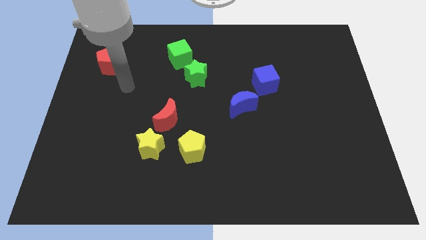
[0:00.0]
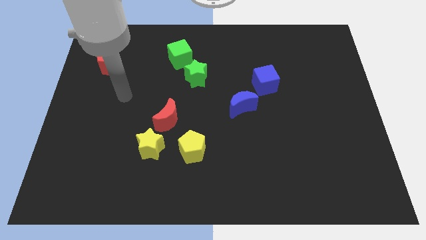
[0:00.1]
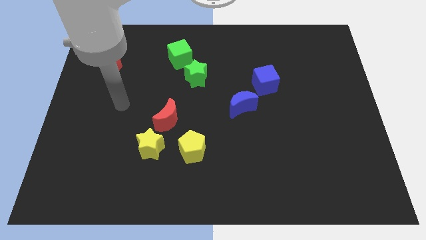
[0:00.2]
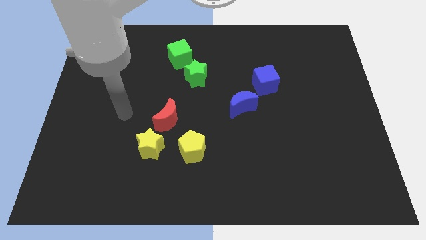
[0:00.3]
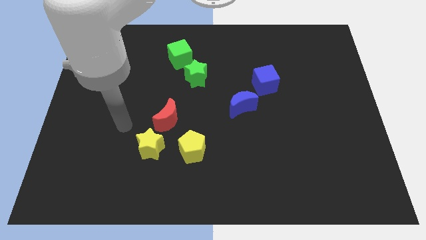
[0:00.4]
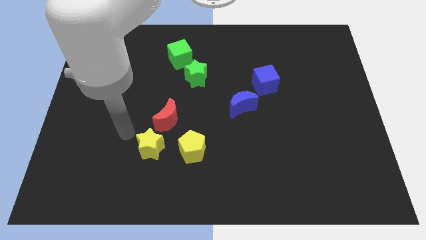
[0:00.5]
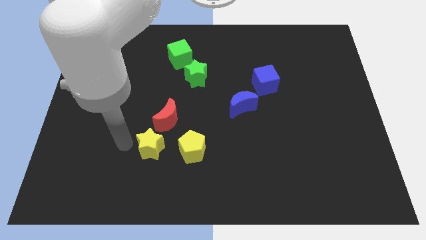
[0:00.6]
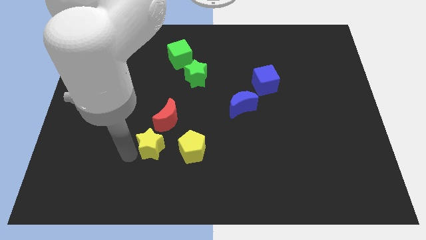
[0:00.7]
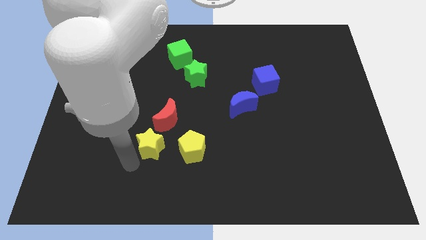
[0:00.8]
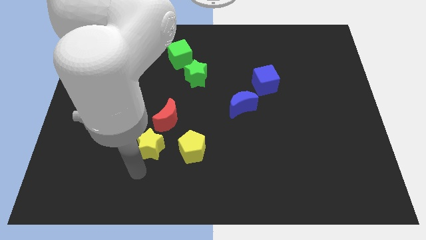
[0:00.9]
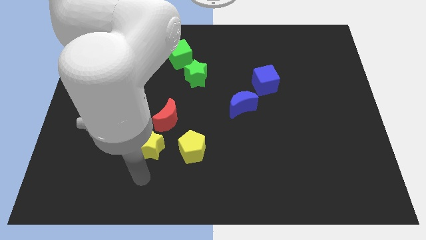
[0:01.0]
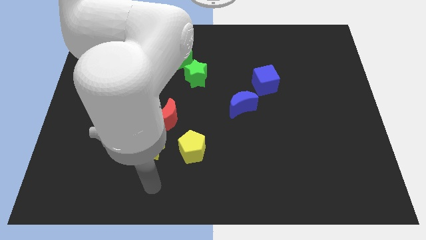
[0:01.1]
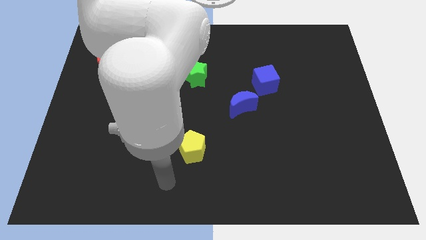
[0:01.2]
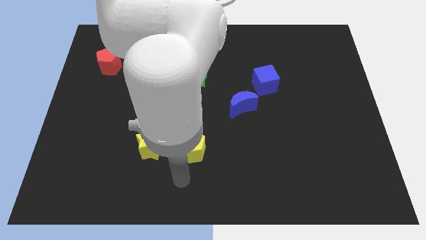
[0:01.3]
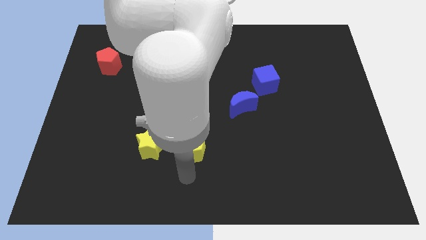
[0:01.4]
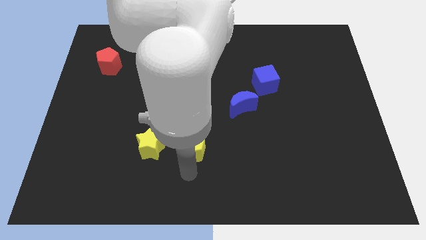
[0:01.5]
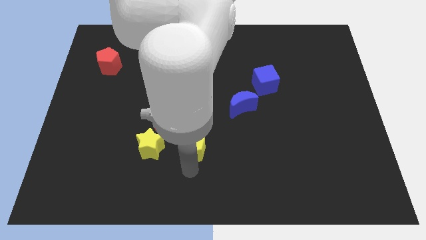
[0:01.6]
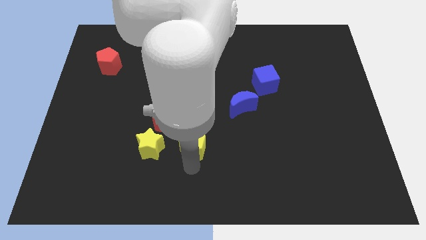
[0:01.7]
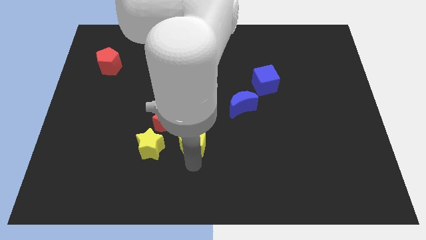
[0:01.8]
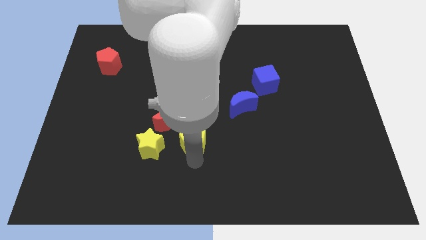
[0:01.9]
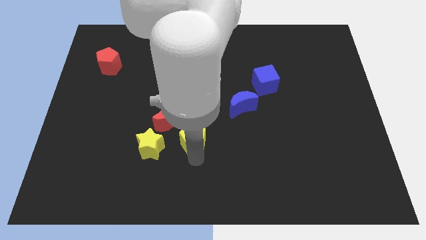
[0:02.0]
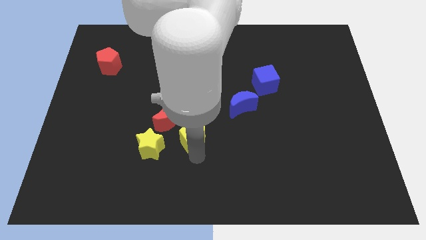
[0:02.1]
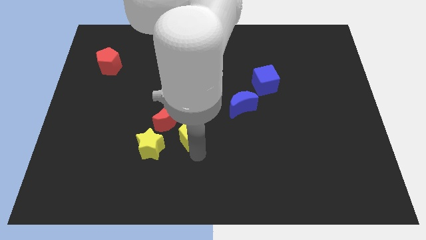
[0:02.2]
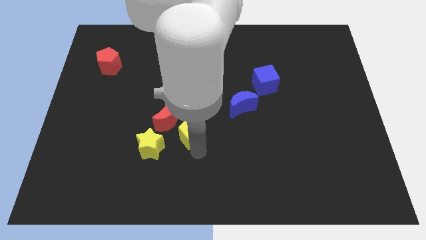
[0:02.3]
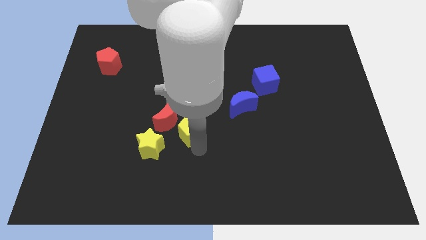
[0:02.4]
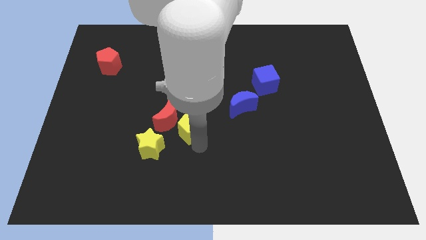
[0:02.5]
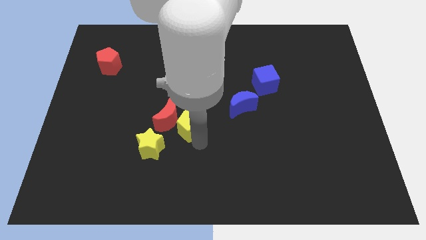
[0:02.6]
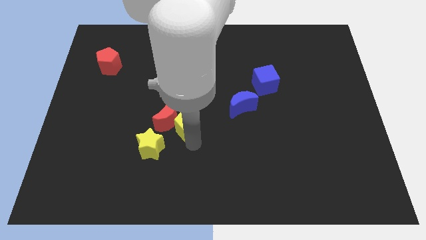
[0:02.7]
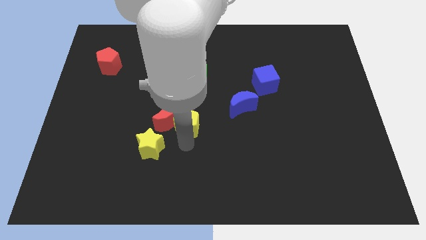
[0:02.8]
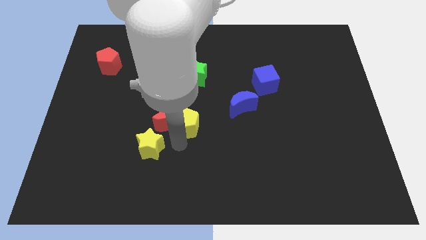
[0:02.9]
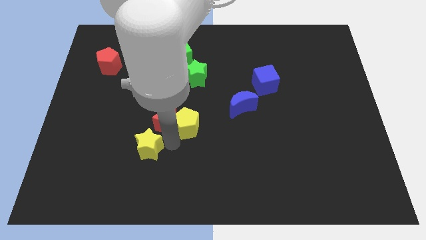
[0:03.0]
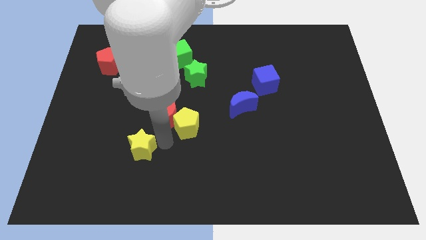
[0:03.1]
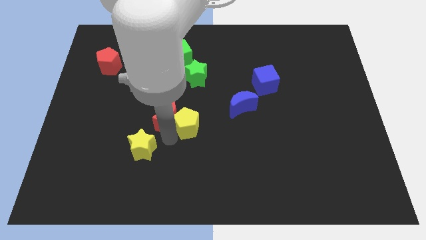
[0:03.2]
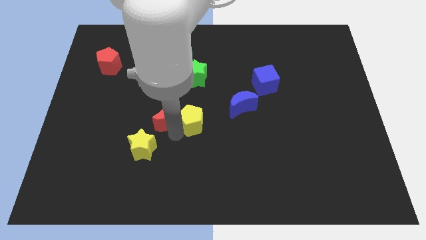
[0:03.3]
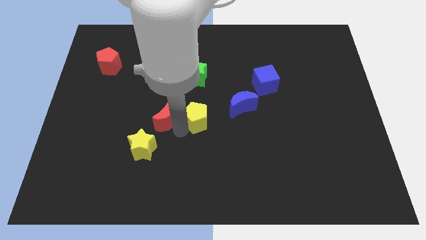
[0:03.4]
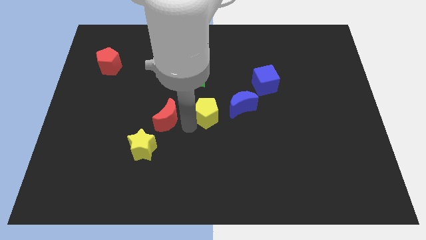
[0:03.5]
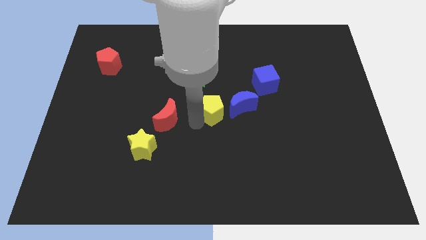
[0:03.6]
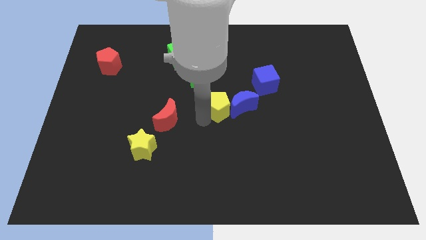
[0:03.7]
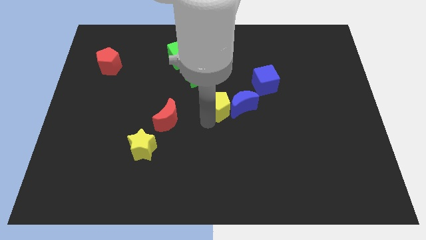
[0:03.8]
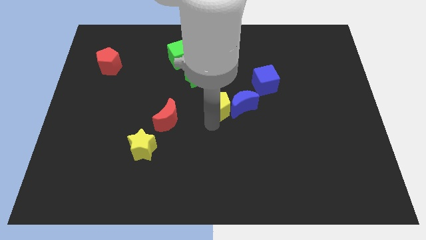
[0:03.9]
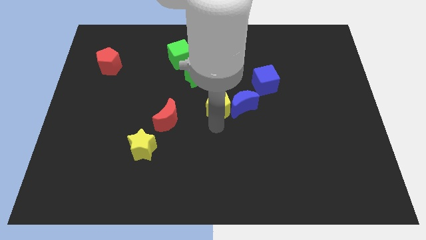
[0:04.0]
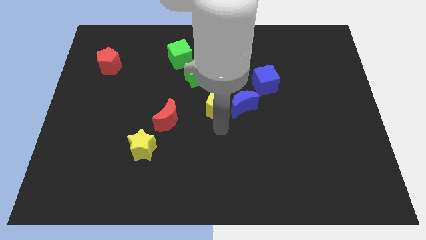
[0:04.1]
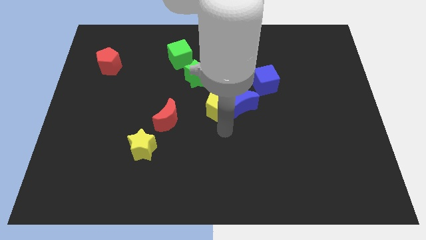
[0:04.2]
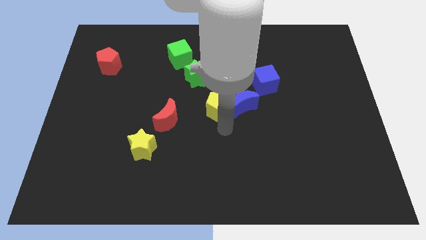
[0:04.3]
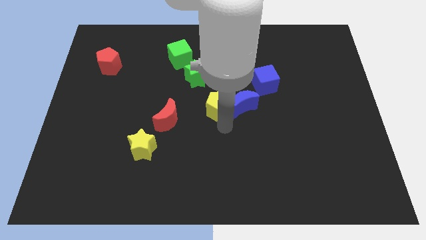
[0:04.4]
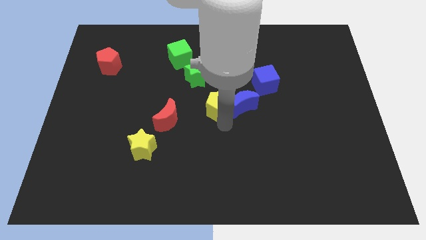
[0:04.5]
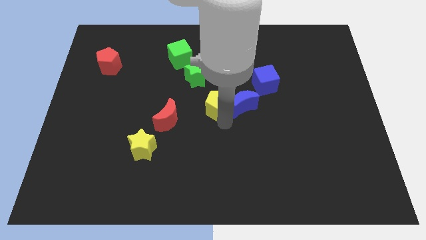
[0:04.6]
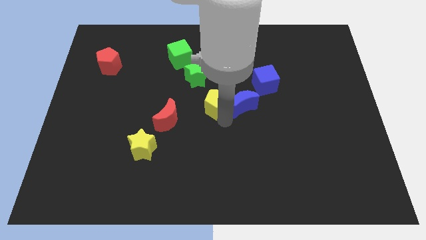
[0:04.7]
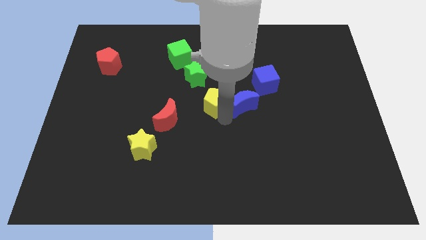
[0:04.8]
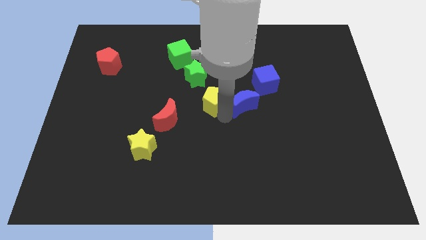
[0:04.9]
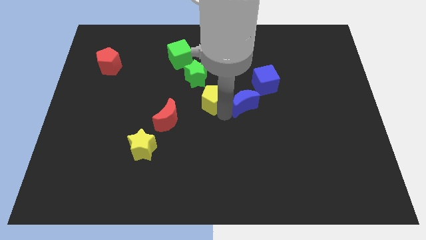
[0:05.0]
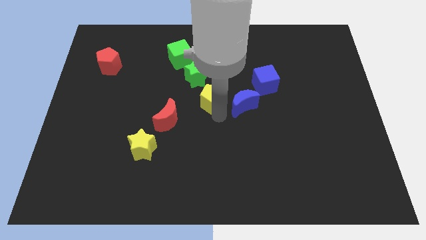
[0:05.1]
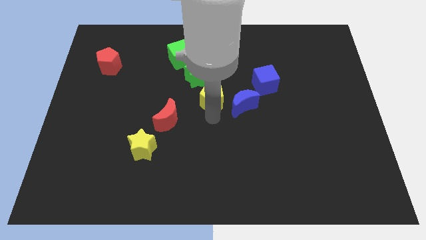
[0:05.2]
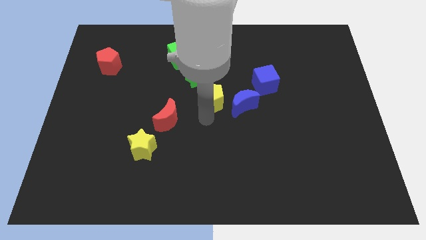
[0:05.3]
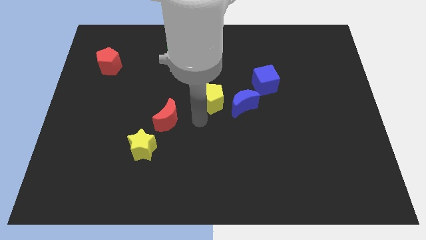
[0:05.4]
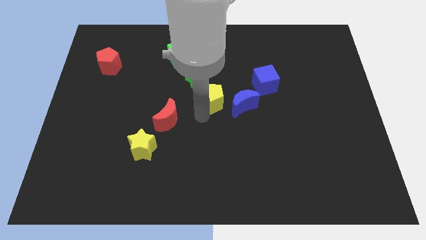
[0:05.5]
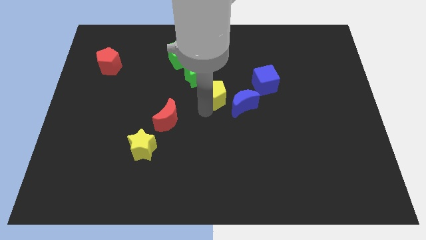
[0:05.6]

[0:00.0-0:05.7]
put the yellow pentagon left of the blue cube

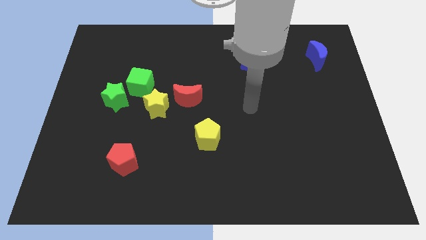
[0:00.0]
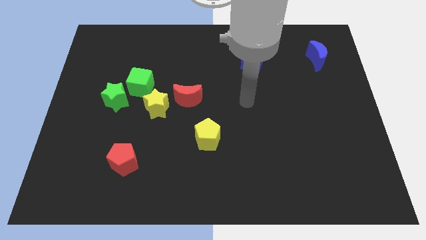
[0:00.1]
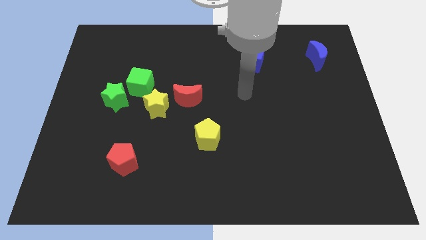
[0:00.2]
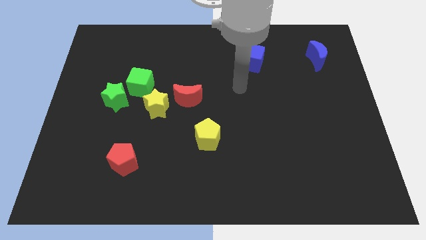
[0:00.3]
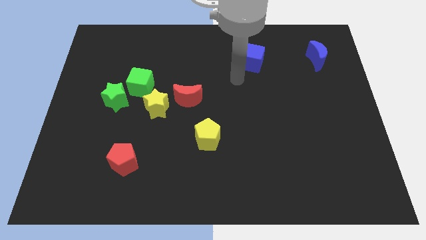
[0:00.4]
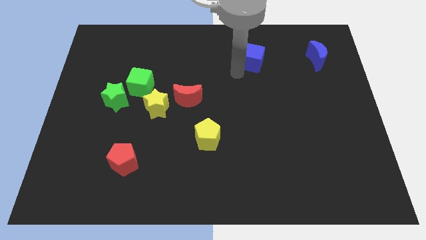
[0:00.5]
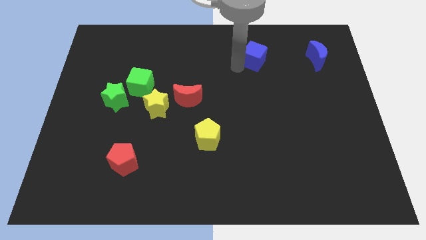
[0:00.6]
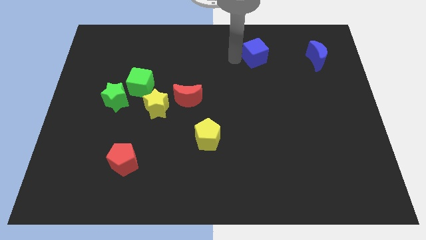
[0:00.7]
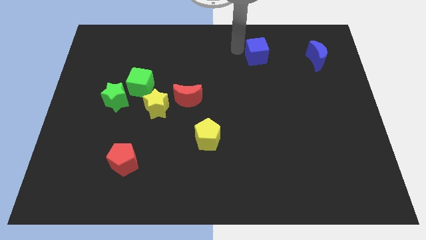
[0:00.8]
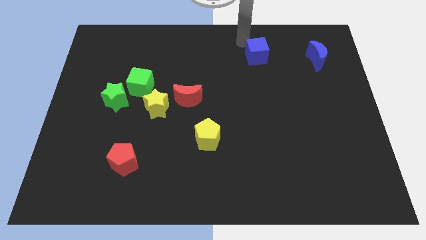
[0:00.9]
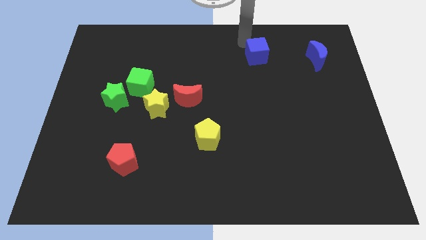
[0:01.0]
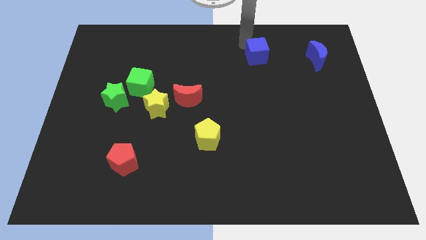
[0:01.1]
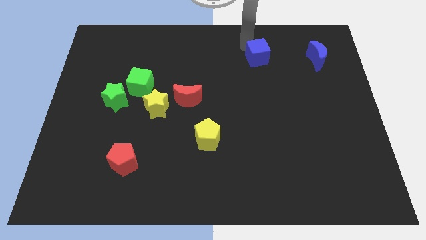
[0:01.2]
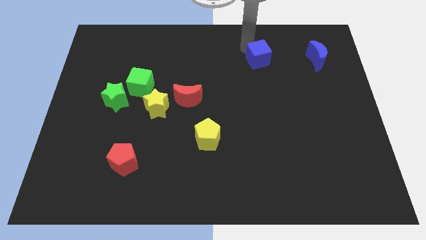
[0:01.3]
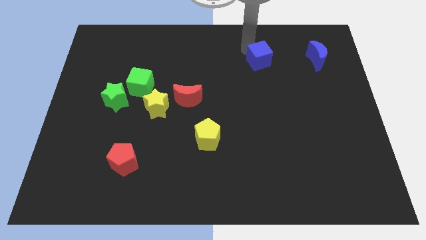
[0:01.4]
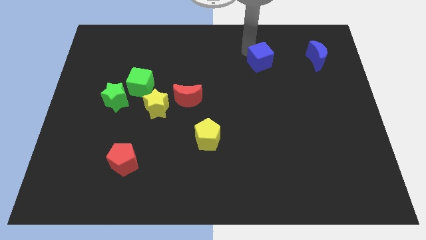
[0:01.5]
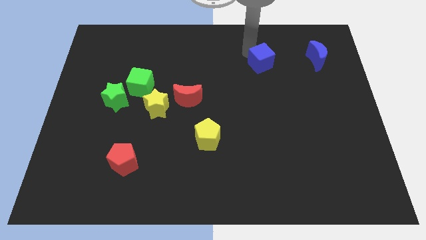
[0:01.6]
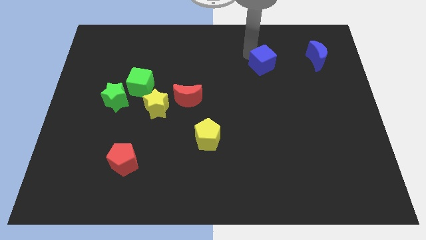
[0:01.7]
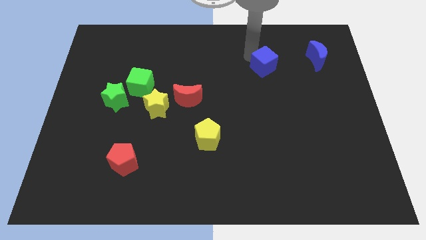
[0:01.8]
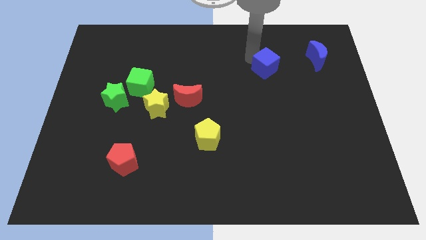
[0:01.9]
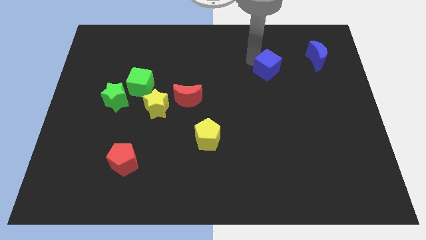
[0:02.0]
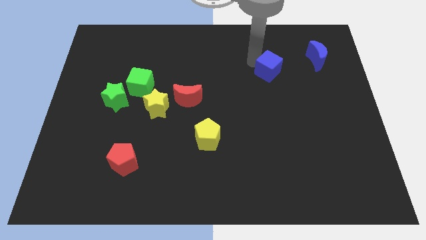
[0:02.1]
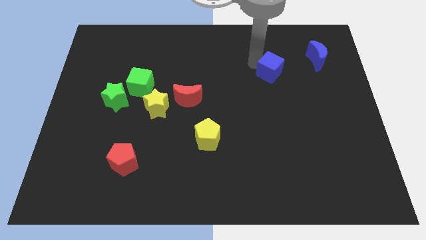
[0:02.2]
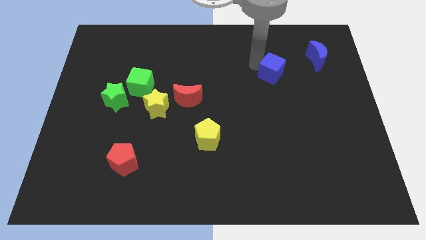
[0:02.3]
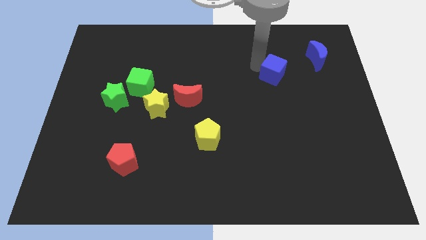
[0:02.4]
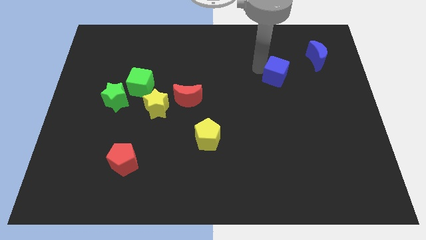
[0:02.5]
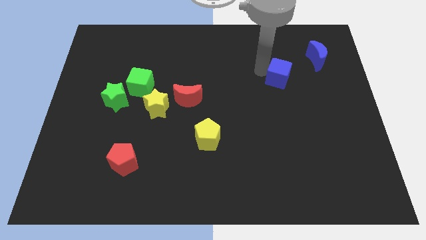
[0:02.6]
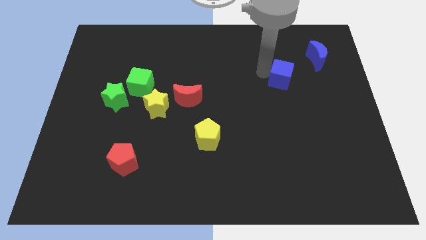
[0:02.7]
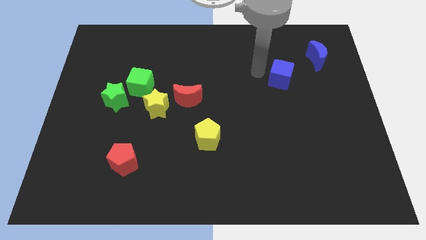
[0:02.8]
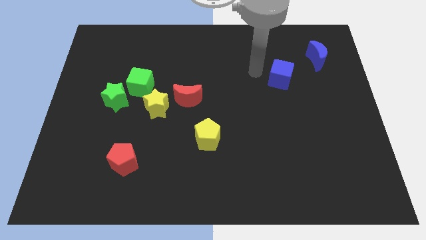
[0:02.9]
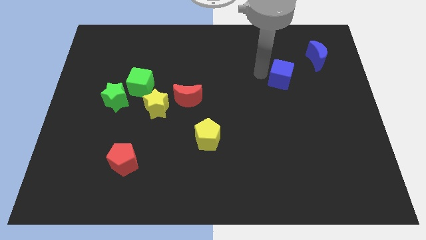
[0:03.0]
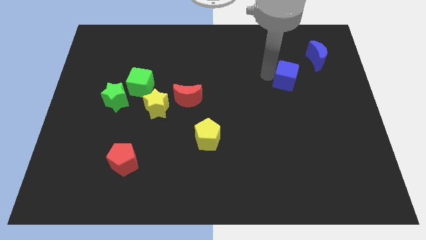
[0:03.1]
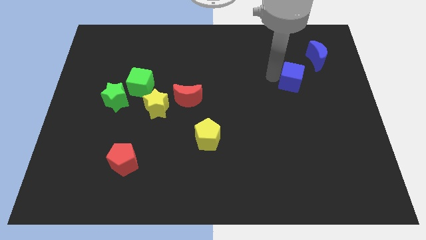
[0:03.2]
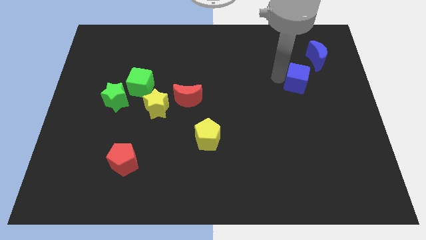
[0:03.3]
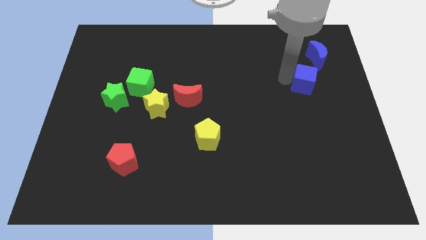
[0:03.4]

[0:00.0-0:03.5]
slide the blue cube below the blue moon
